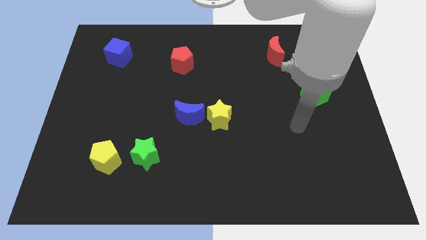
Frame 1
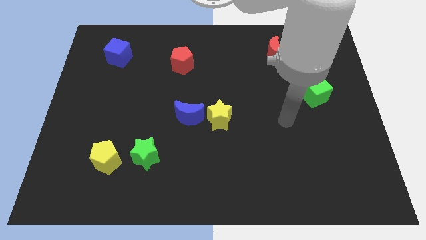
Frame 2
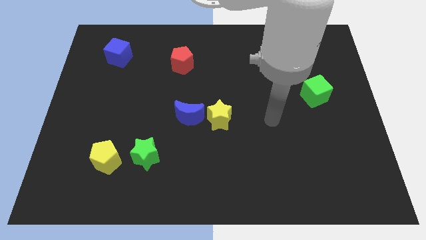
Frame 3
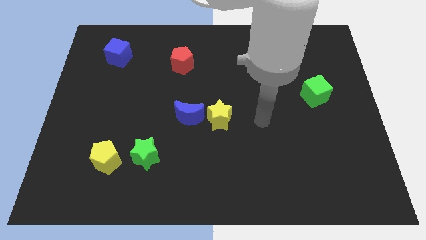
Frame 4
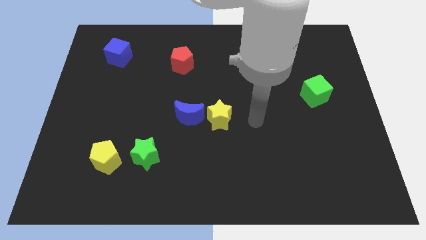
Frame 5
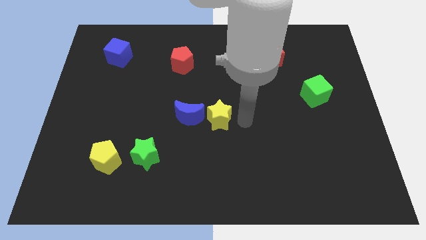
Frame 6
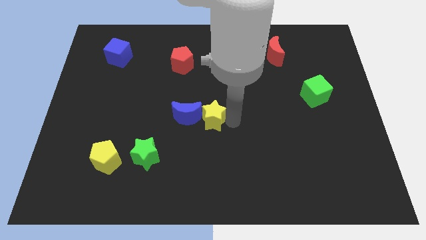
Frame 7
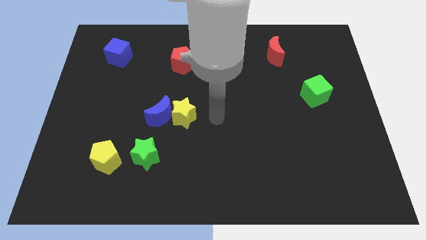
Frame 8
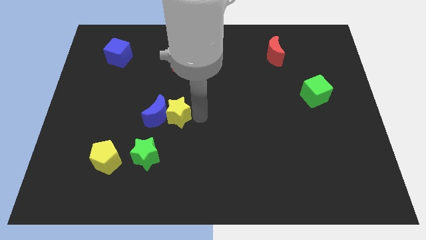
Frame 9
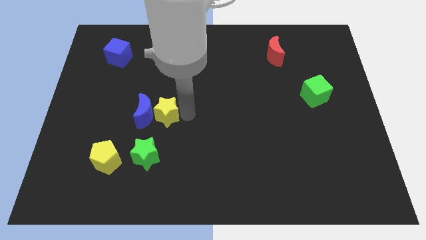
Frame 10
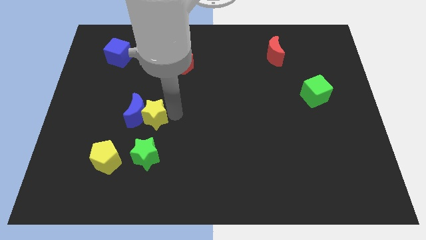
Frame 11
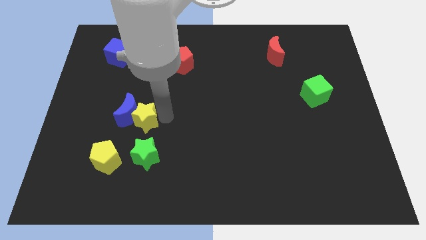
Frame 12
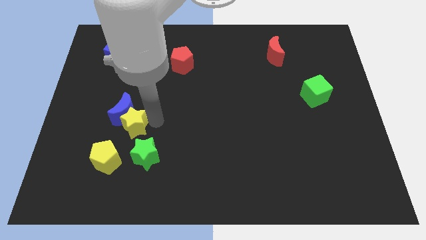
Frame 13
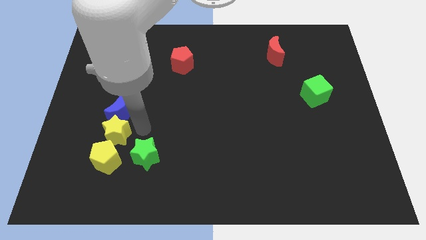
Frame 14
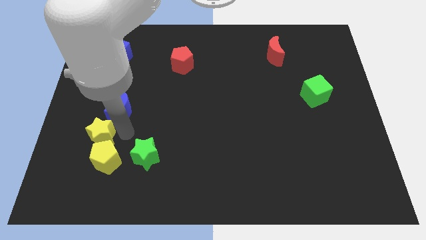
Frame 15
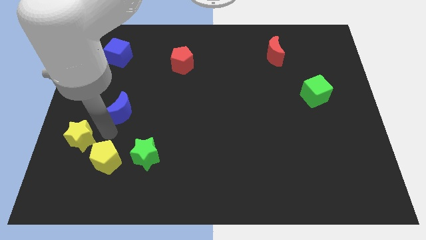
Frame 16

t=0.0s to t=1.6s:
move the blue moon away from the yellow star

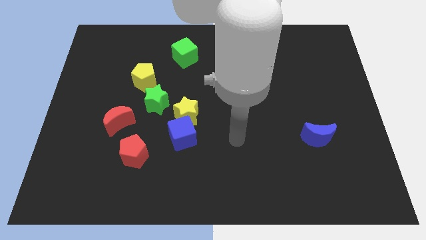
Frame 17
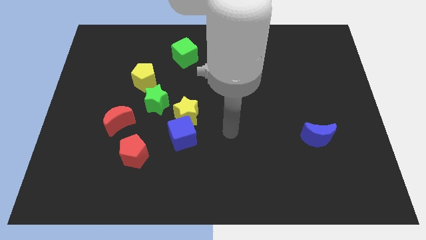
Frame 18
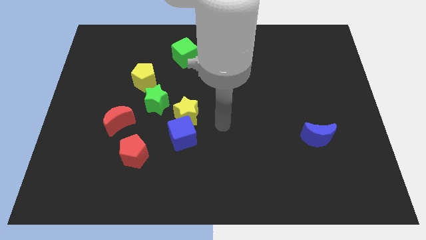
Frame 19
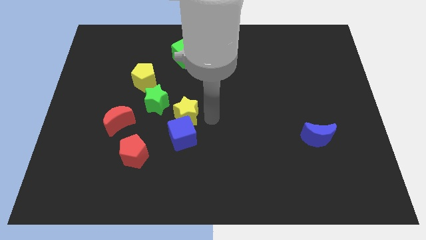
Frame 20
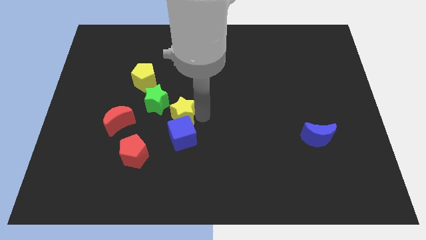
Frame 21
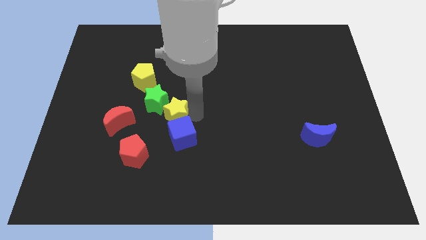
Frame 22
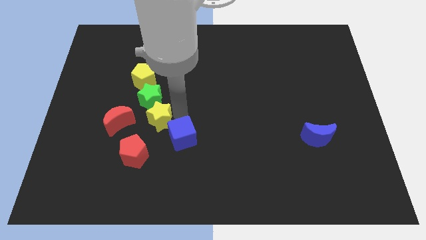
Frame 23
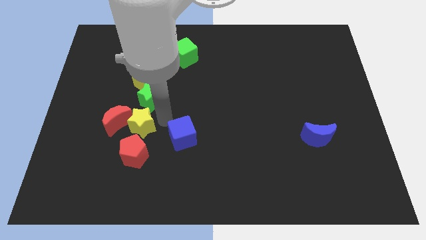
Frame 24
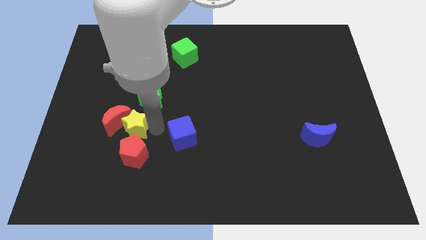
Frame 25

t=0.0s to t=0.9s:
move the blue cube away from the yellow star

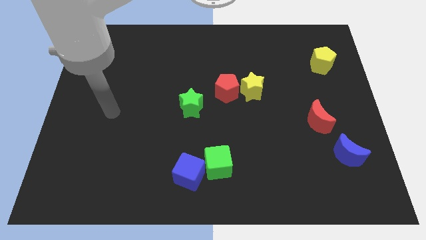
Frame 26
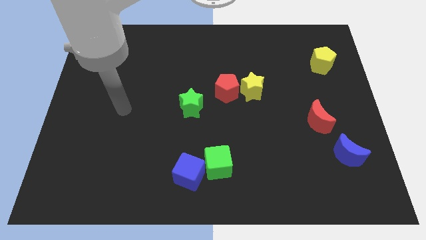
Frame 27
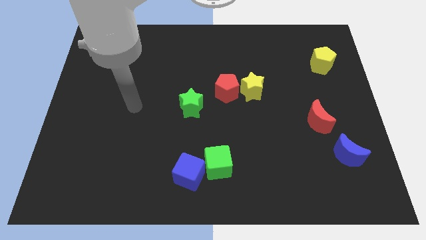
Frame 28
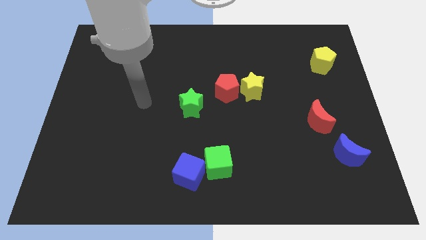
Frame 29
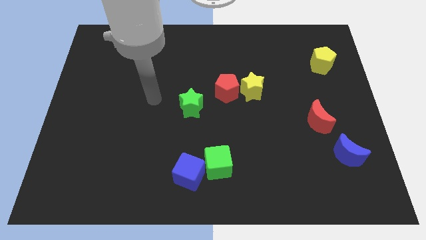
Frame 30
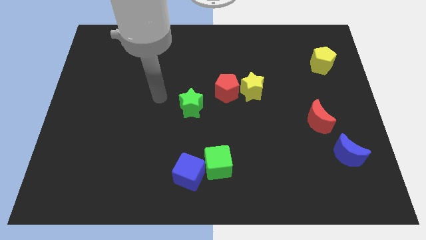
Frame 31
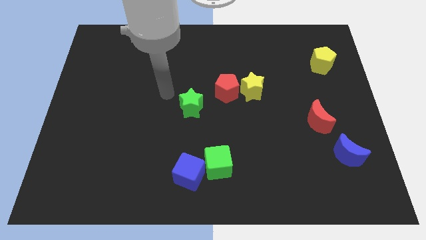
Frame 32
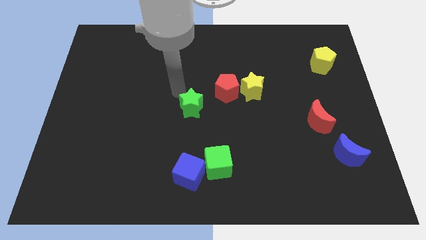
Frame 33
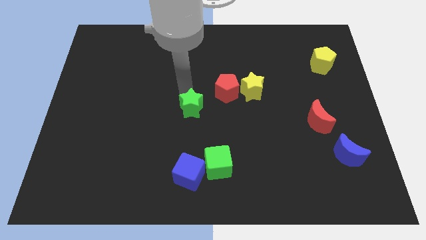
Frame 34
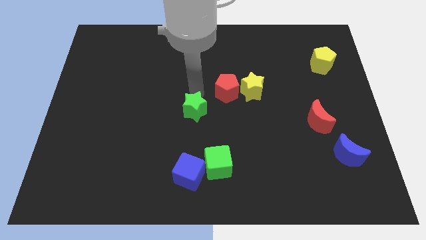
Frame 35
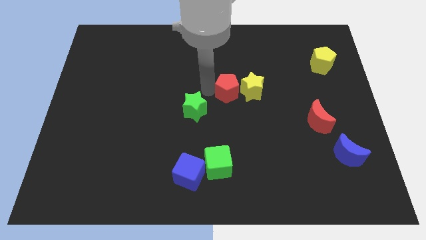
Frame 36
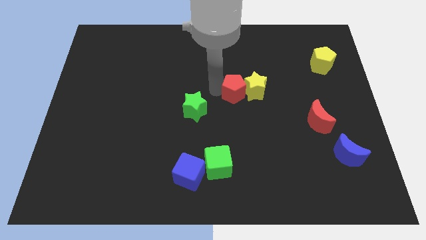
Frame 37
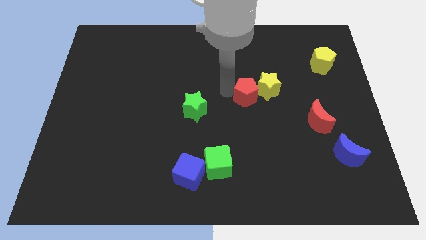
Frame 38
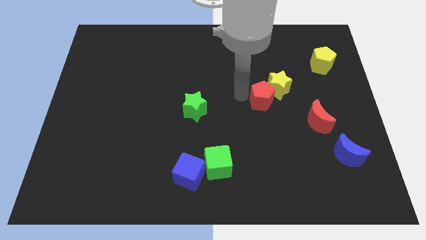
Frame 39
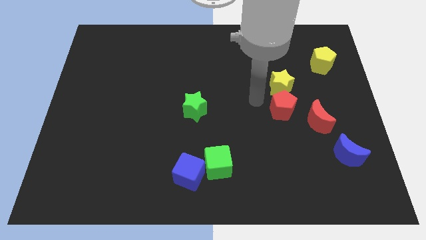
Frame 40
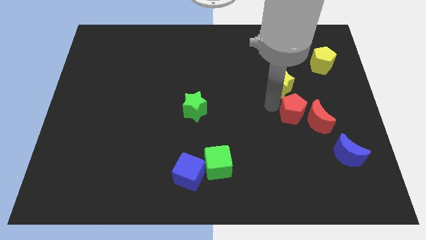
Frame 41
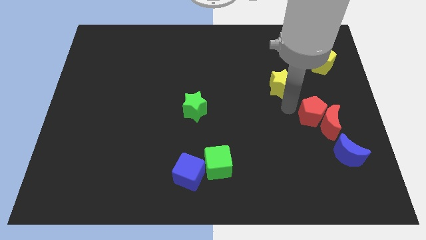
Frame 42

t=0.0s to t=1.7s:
move the yellow star away from the red pentagon

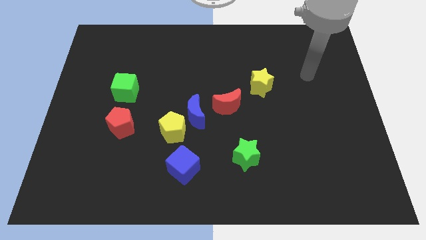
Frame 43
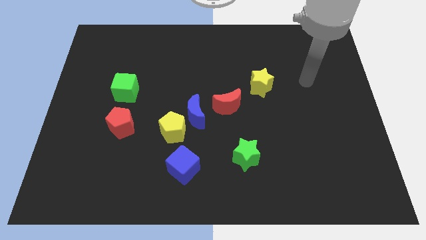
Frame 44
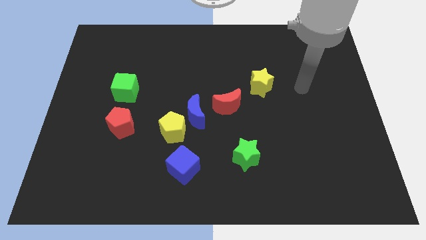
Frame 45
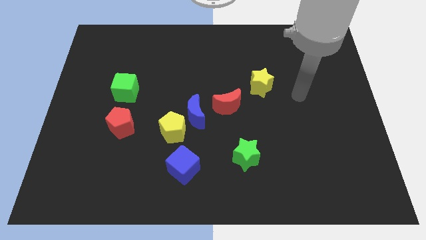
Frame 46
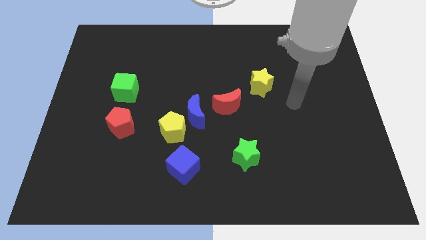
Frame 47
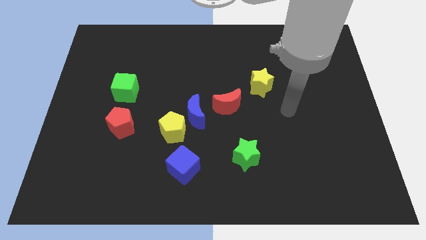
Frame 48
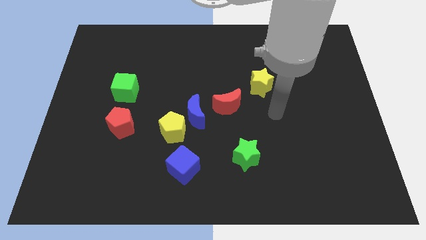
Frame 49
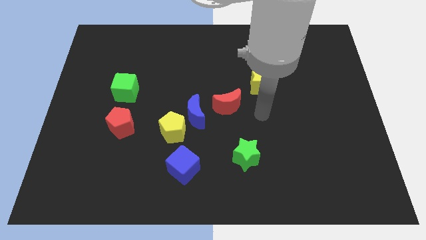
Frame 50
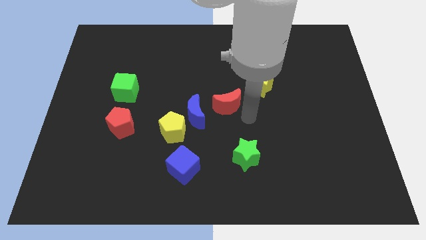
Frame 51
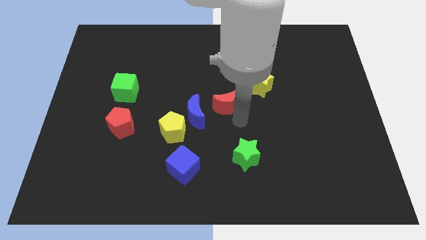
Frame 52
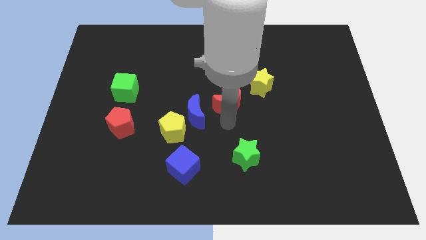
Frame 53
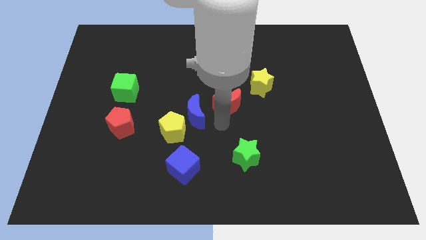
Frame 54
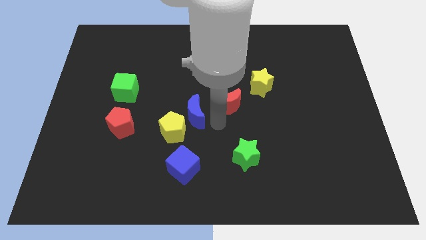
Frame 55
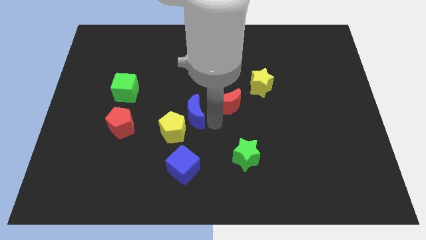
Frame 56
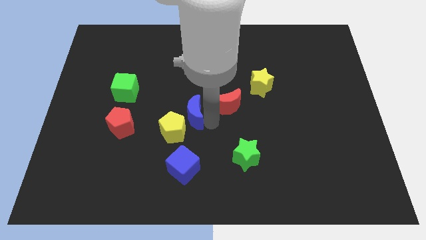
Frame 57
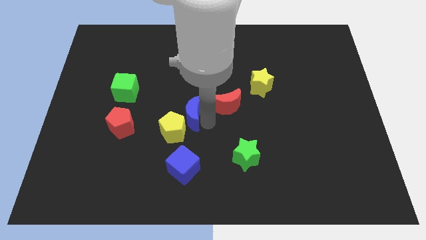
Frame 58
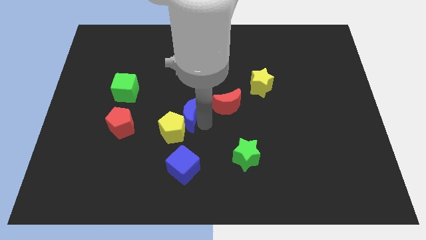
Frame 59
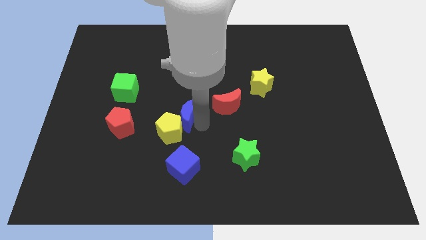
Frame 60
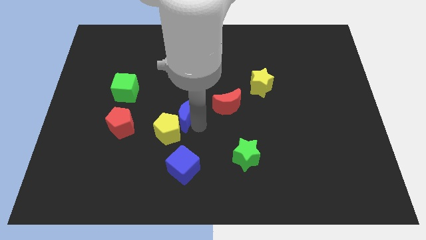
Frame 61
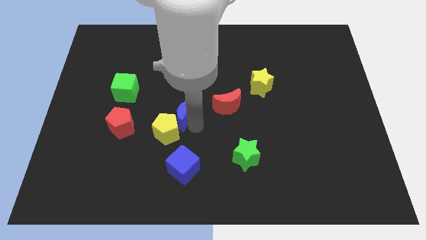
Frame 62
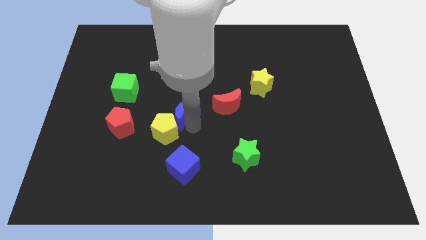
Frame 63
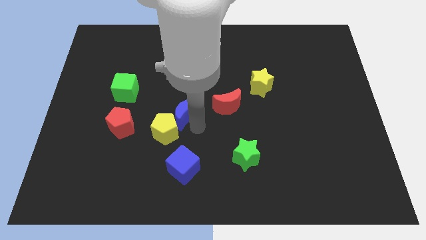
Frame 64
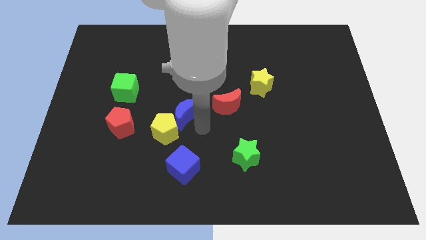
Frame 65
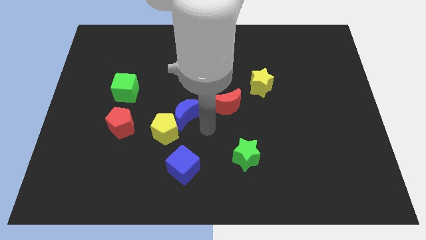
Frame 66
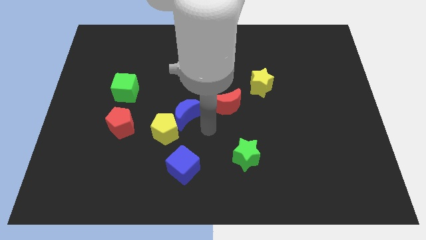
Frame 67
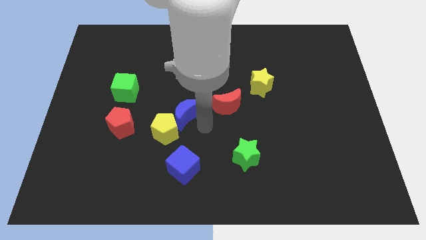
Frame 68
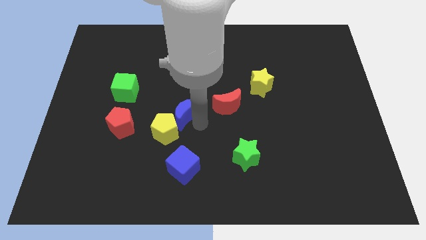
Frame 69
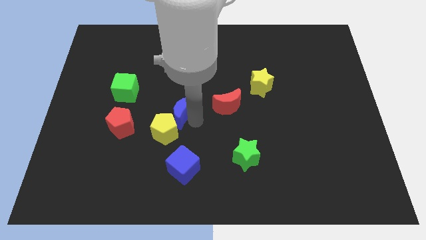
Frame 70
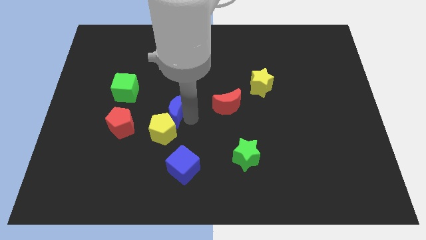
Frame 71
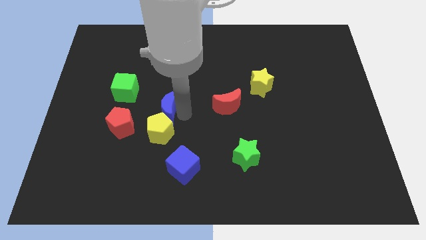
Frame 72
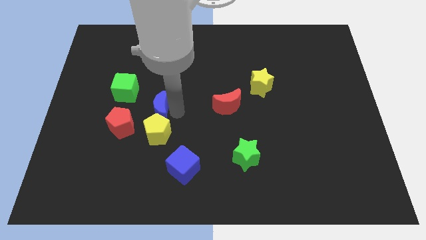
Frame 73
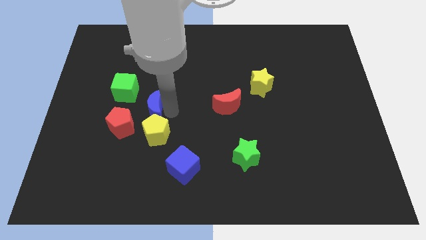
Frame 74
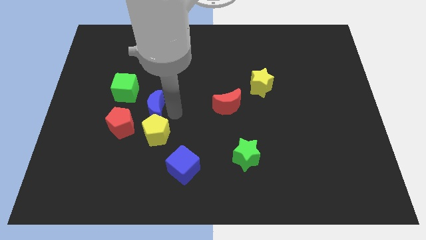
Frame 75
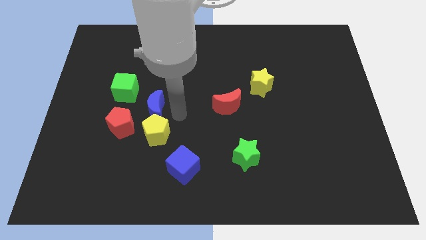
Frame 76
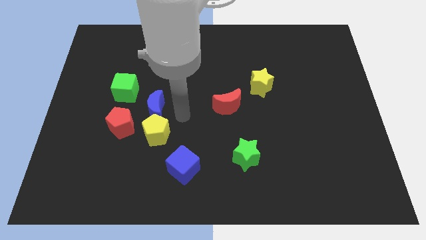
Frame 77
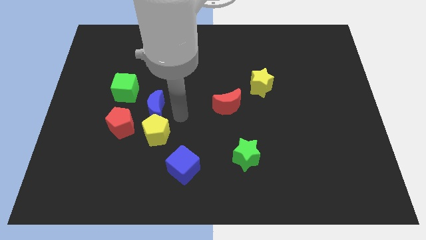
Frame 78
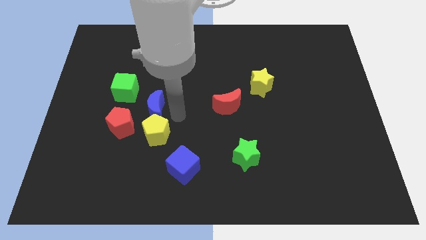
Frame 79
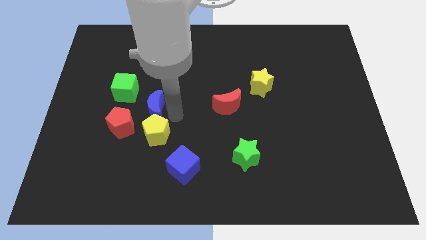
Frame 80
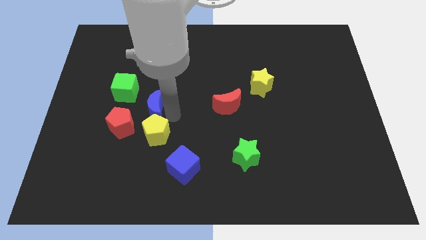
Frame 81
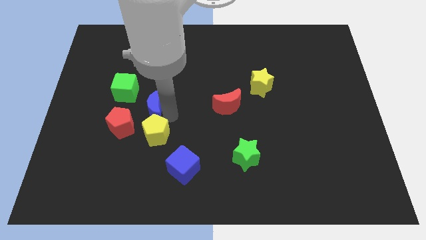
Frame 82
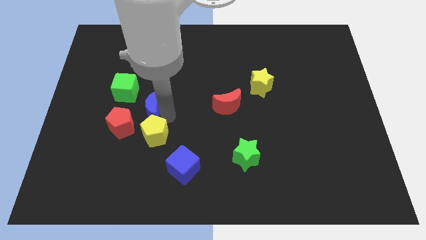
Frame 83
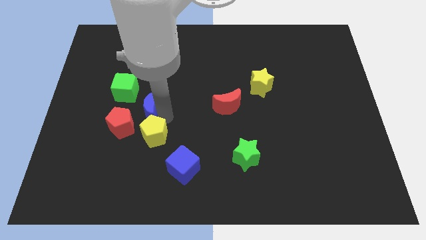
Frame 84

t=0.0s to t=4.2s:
pull the blue moon apart from the yellow pentagon and red moon

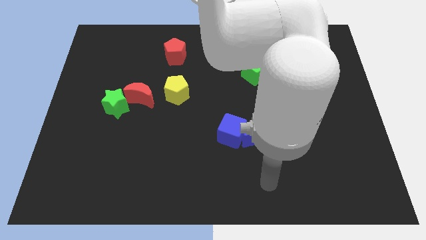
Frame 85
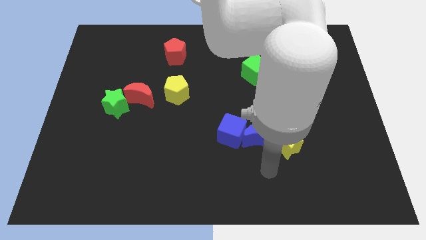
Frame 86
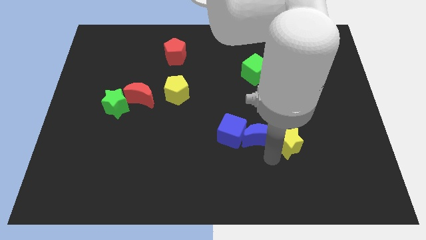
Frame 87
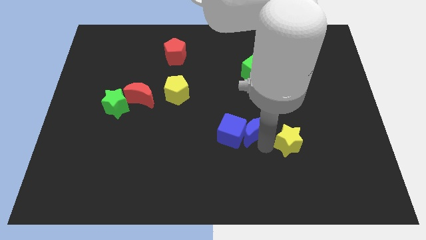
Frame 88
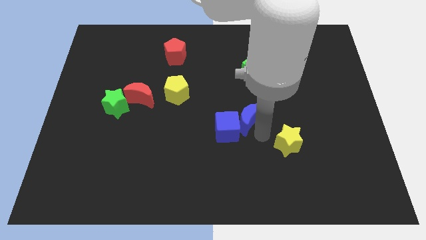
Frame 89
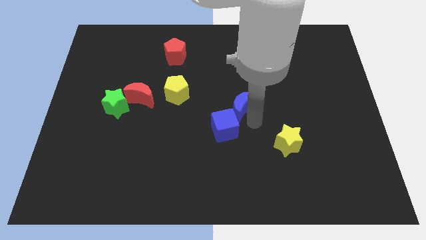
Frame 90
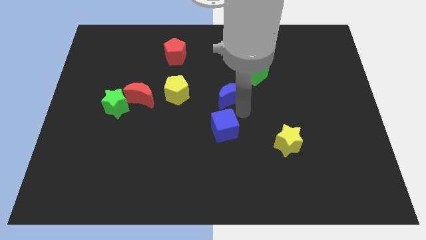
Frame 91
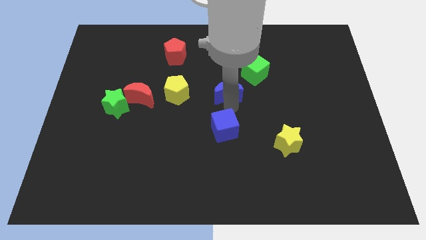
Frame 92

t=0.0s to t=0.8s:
separate the blue cube from the blue moon
